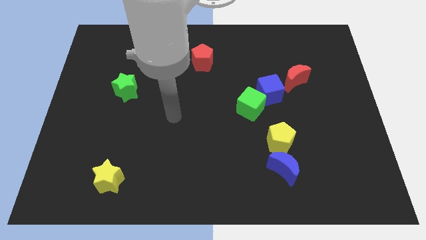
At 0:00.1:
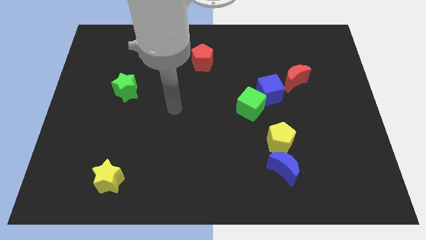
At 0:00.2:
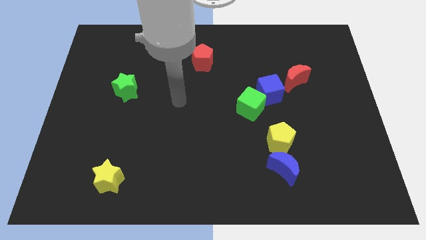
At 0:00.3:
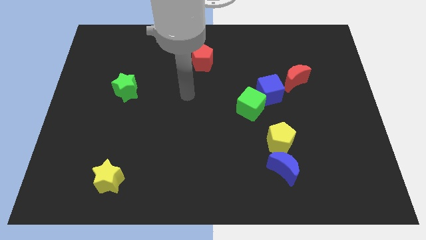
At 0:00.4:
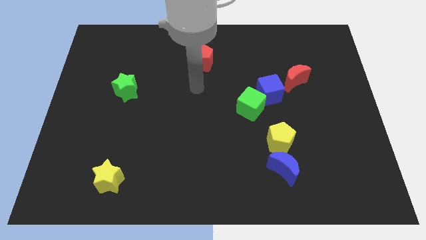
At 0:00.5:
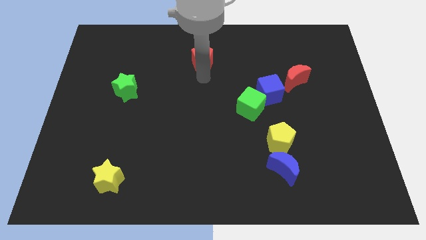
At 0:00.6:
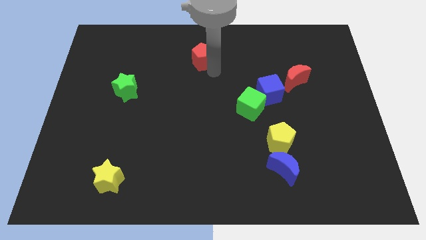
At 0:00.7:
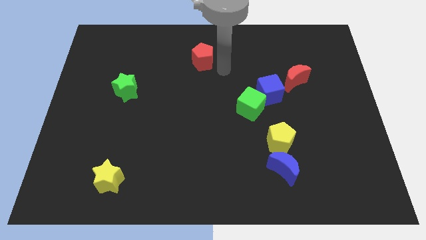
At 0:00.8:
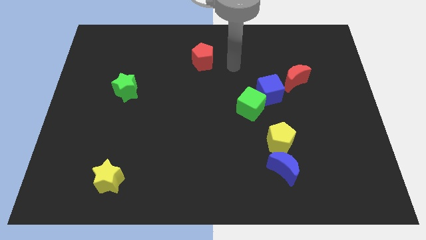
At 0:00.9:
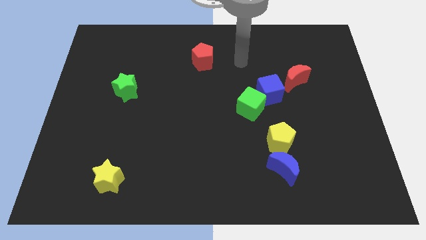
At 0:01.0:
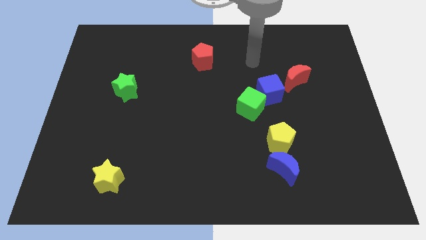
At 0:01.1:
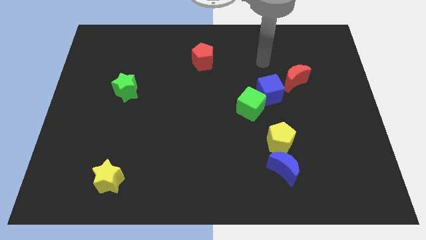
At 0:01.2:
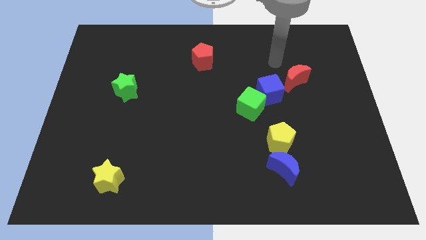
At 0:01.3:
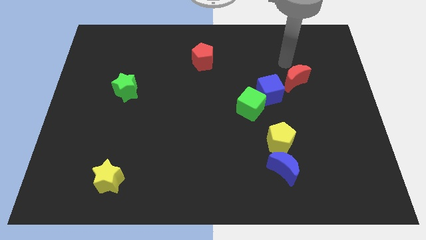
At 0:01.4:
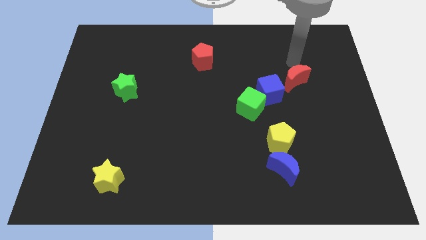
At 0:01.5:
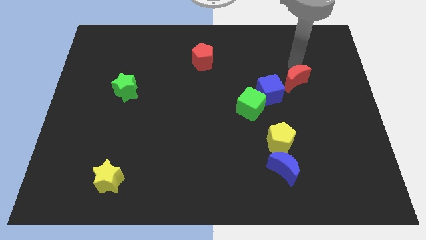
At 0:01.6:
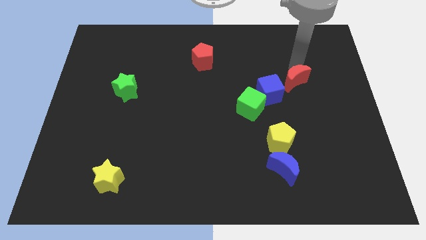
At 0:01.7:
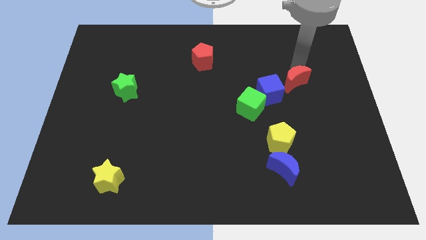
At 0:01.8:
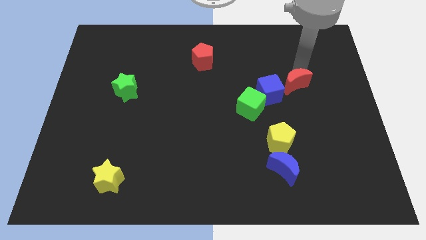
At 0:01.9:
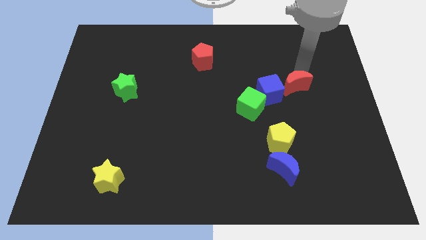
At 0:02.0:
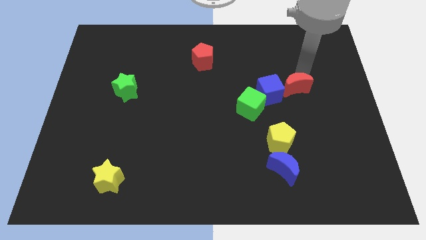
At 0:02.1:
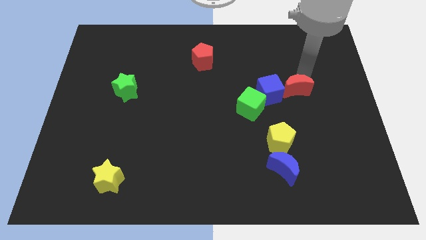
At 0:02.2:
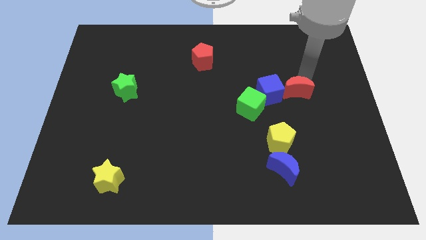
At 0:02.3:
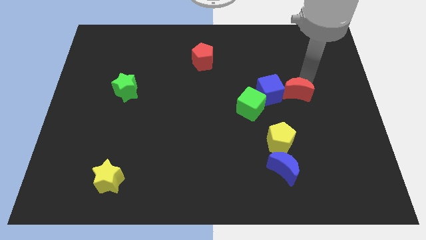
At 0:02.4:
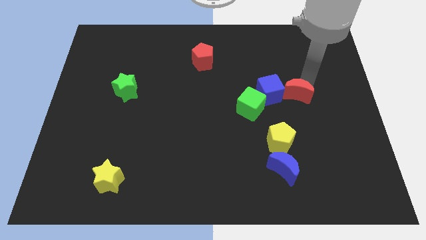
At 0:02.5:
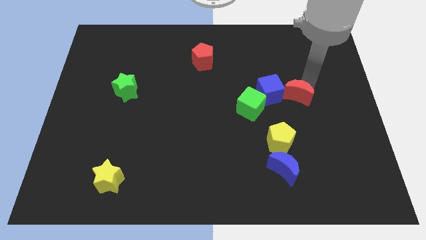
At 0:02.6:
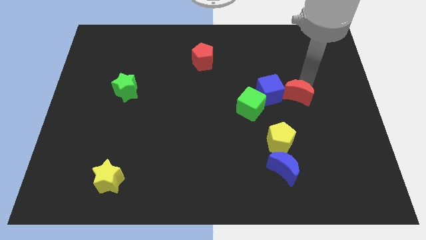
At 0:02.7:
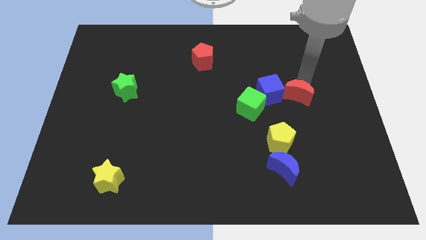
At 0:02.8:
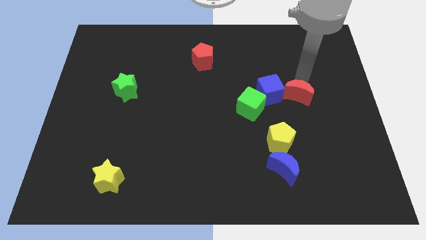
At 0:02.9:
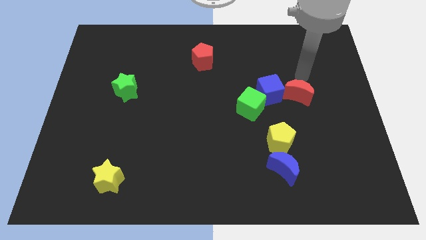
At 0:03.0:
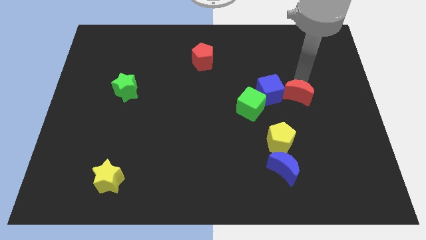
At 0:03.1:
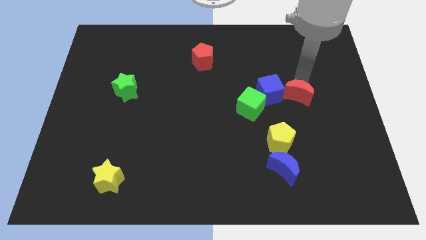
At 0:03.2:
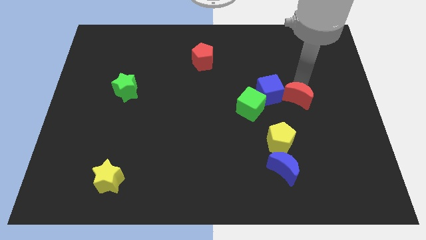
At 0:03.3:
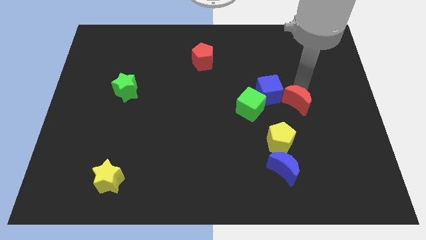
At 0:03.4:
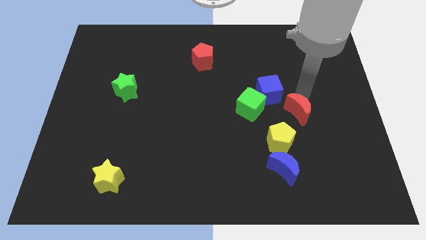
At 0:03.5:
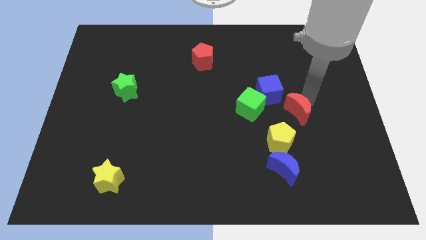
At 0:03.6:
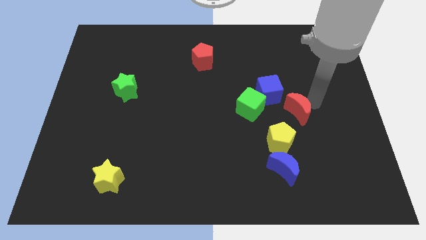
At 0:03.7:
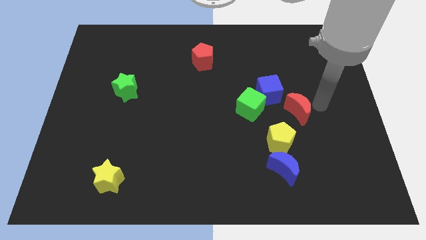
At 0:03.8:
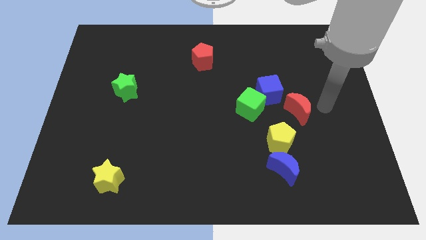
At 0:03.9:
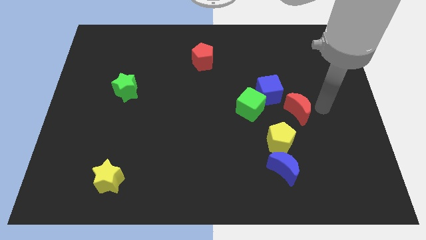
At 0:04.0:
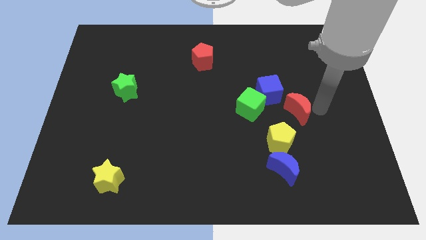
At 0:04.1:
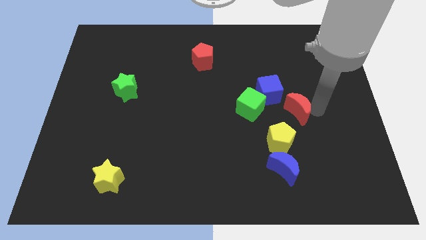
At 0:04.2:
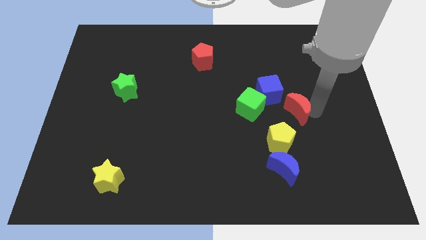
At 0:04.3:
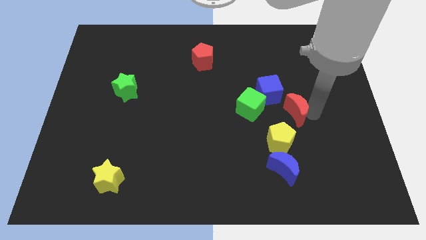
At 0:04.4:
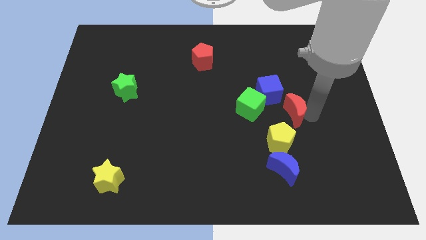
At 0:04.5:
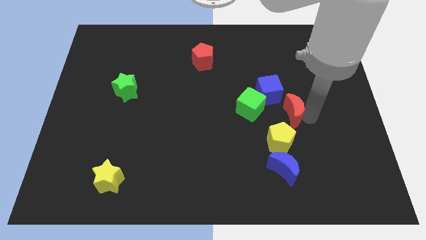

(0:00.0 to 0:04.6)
push the red moon somewhat diagonally down and left

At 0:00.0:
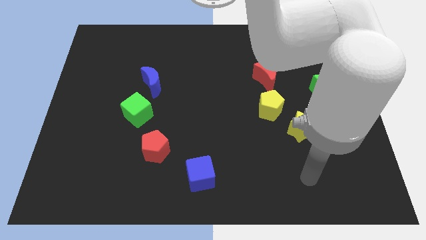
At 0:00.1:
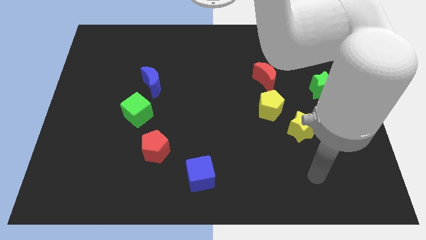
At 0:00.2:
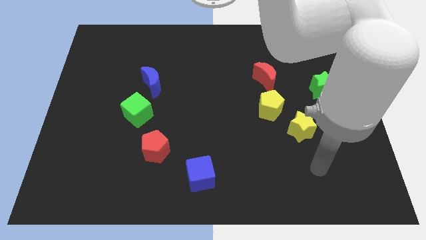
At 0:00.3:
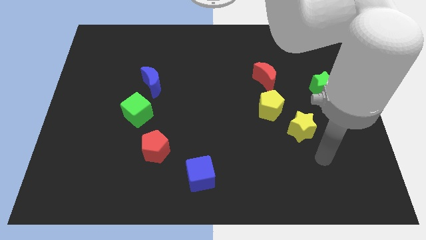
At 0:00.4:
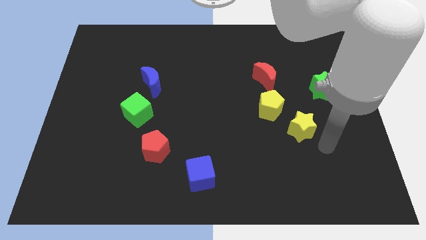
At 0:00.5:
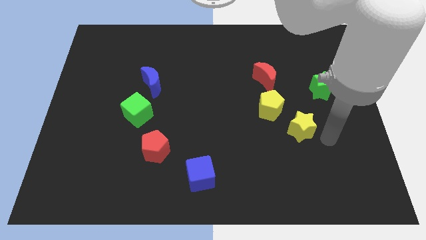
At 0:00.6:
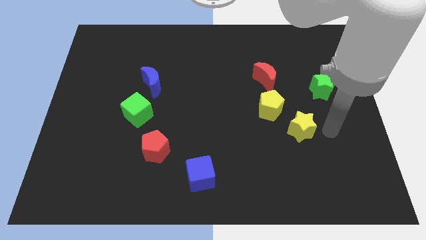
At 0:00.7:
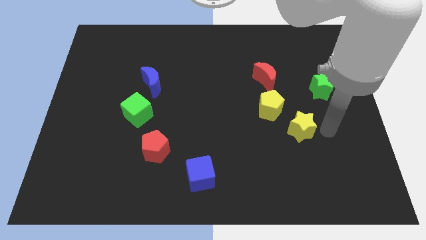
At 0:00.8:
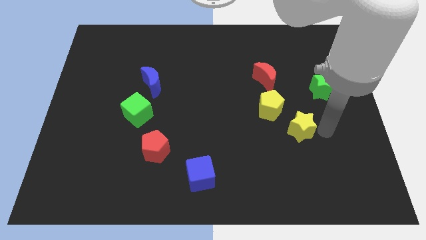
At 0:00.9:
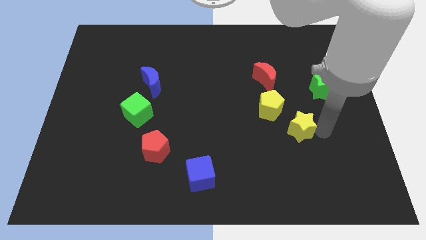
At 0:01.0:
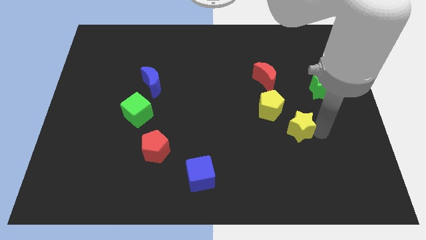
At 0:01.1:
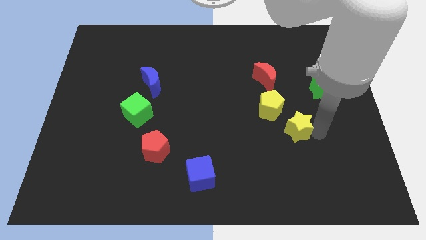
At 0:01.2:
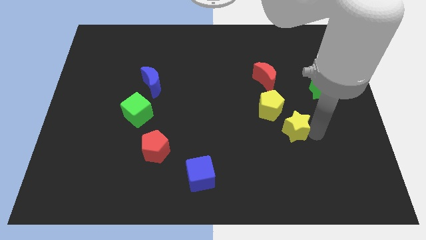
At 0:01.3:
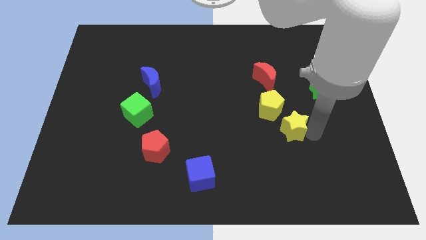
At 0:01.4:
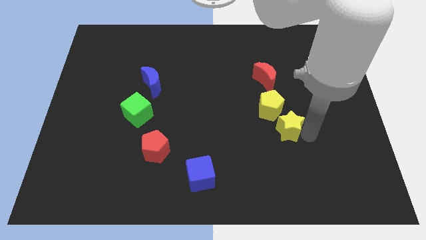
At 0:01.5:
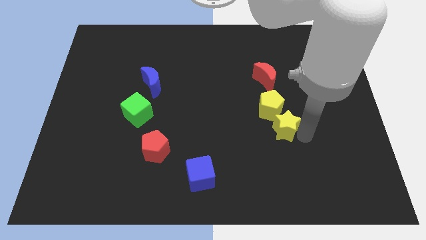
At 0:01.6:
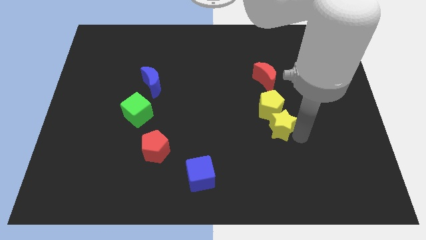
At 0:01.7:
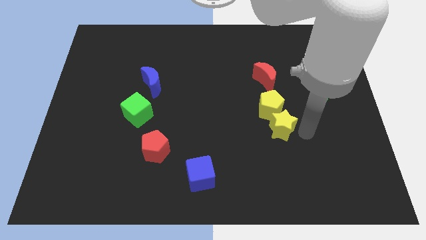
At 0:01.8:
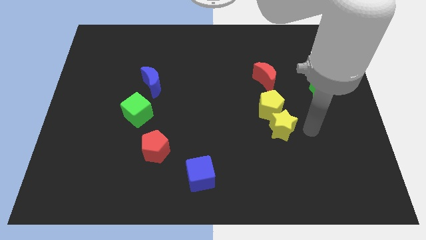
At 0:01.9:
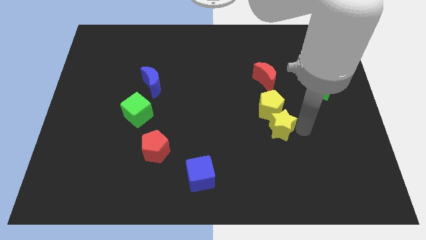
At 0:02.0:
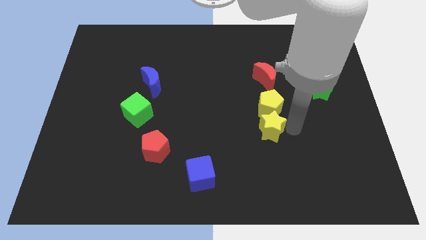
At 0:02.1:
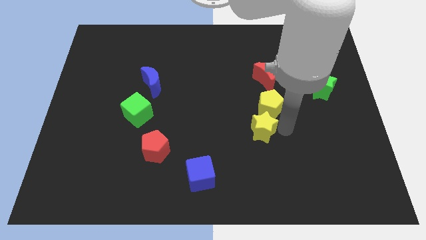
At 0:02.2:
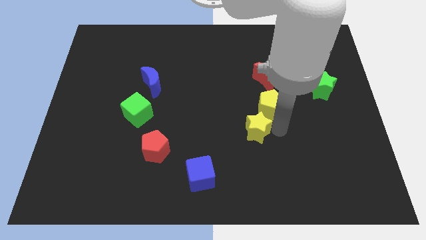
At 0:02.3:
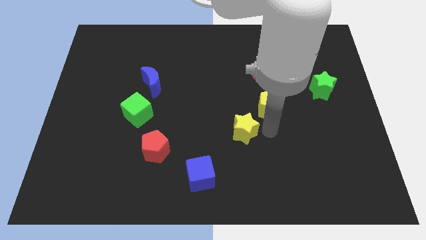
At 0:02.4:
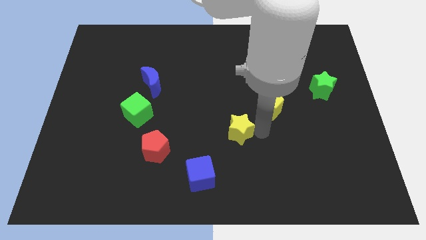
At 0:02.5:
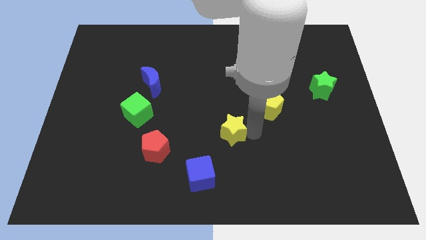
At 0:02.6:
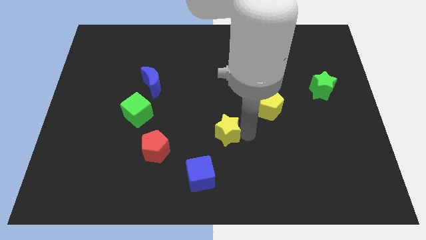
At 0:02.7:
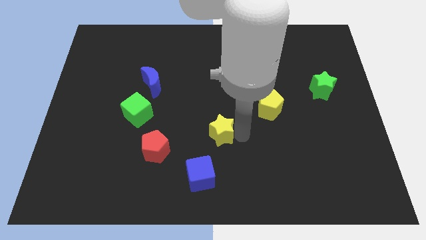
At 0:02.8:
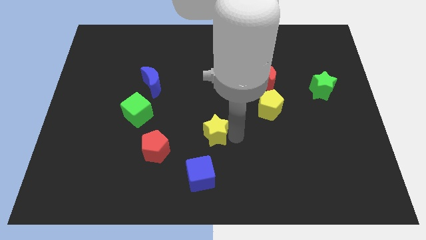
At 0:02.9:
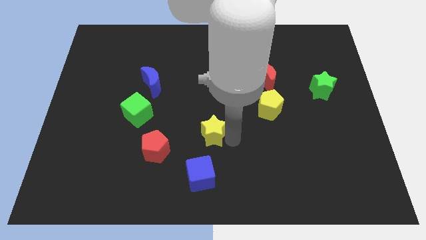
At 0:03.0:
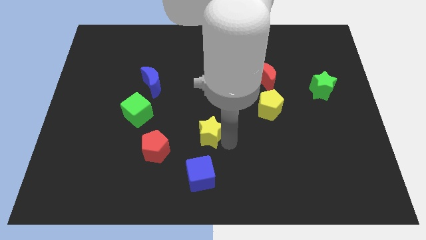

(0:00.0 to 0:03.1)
slide the yellow star left

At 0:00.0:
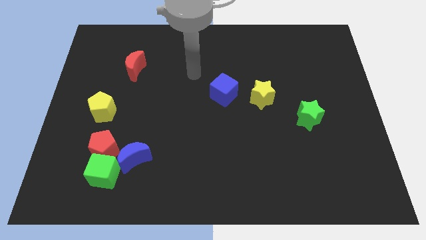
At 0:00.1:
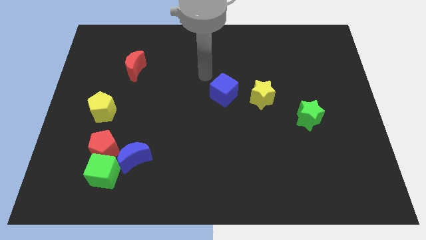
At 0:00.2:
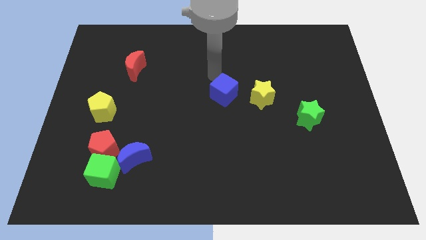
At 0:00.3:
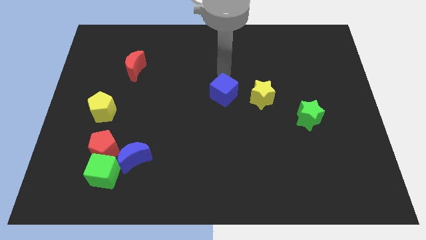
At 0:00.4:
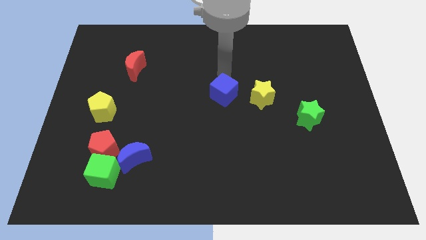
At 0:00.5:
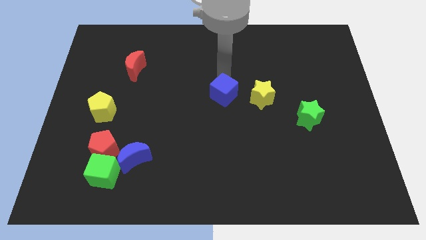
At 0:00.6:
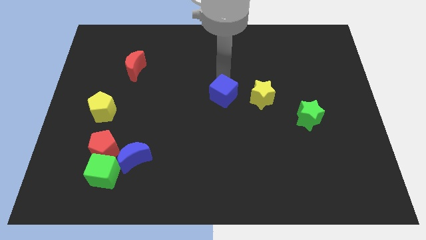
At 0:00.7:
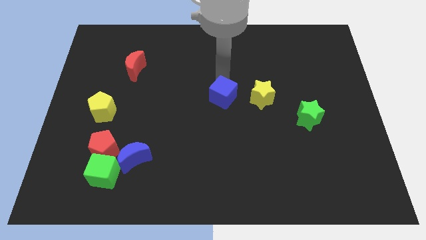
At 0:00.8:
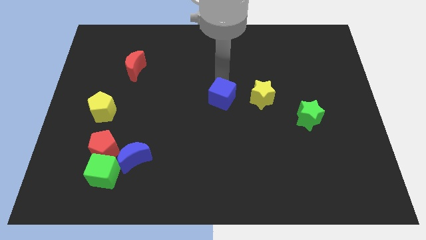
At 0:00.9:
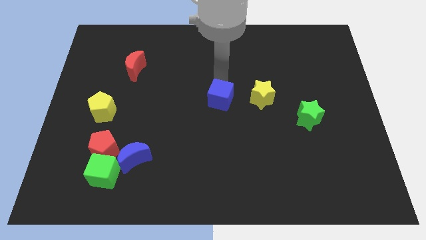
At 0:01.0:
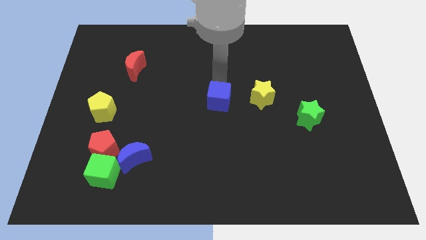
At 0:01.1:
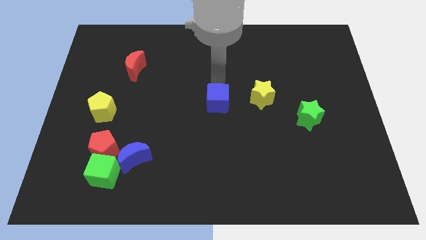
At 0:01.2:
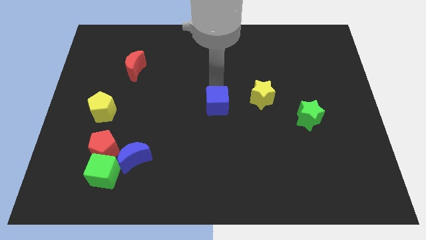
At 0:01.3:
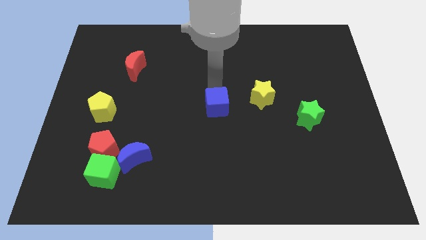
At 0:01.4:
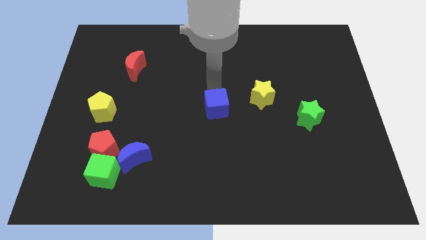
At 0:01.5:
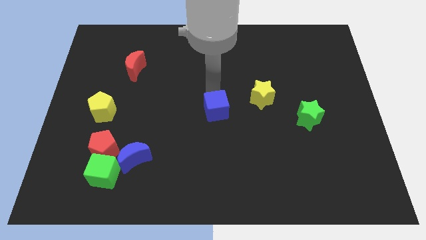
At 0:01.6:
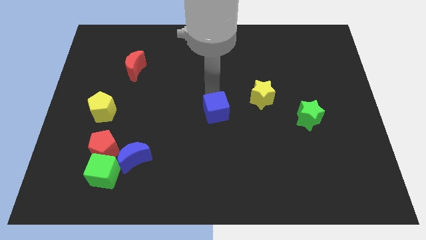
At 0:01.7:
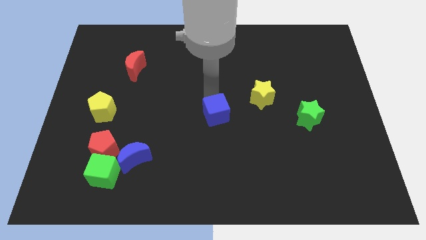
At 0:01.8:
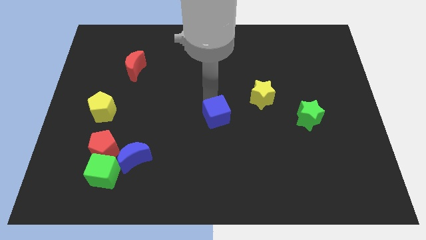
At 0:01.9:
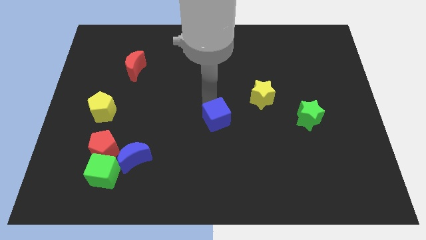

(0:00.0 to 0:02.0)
slightly push the blue cube down
